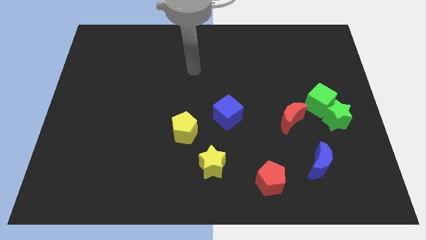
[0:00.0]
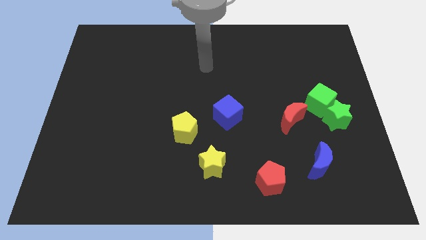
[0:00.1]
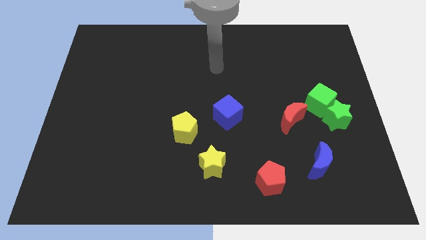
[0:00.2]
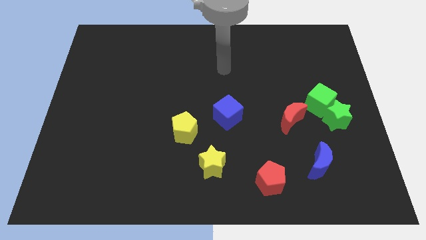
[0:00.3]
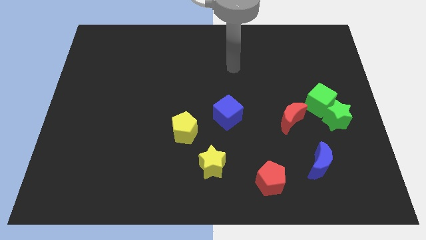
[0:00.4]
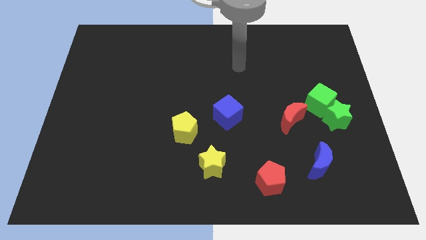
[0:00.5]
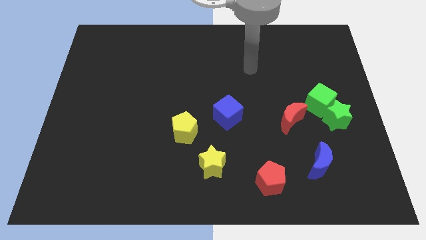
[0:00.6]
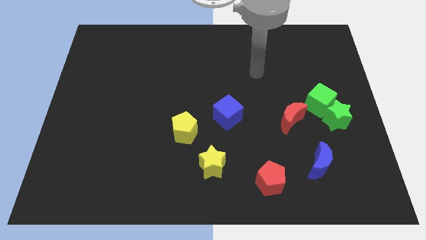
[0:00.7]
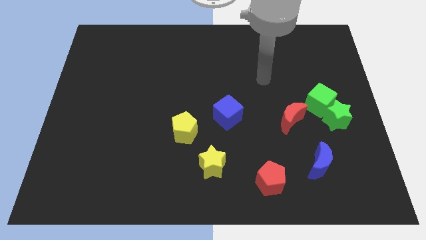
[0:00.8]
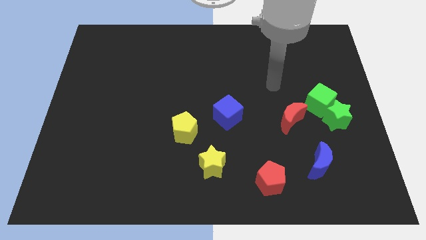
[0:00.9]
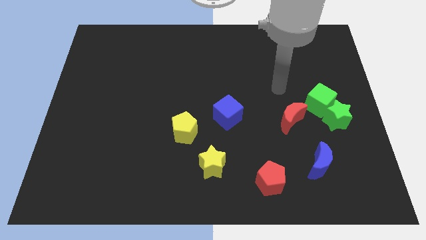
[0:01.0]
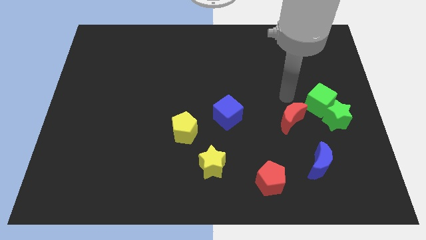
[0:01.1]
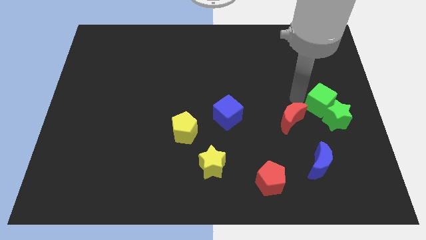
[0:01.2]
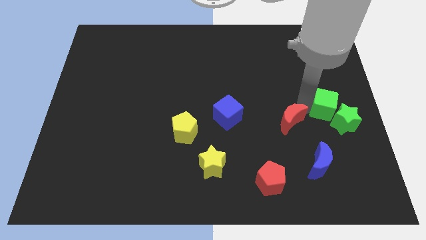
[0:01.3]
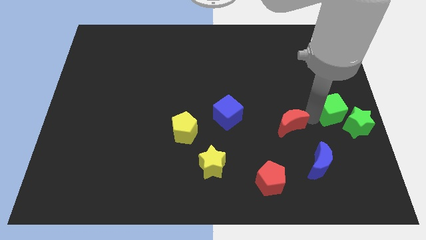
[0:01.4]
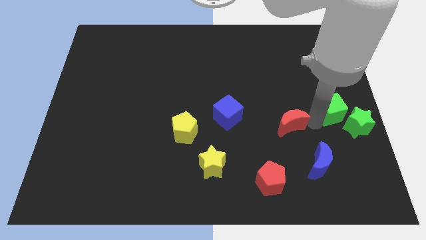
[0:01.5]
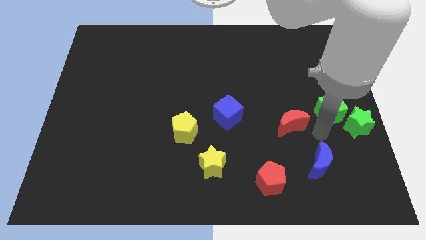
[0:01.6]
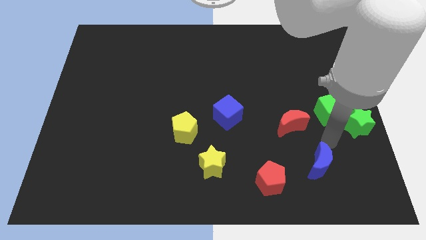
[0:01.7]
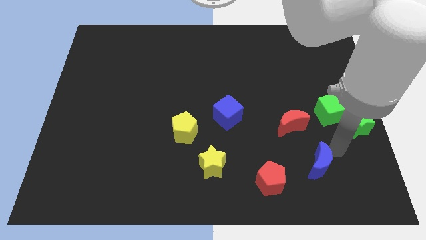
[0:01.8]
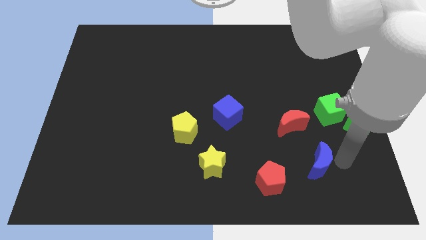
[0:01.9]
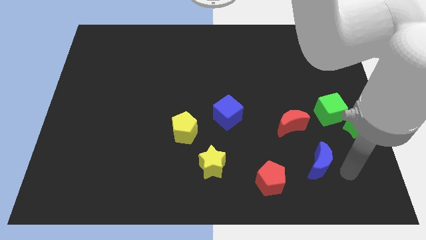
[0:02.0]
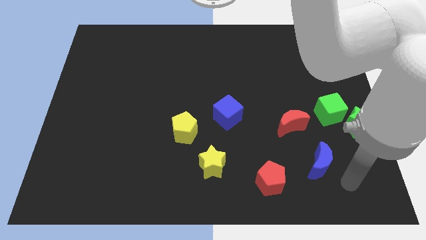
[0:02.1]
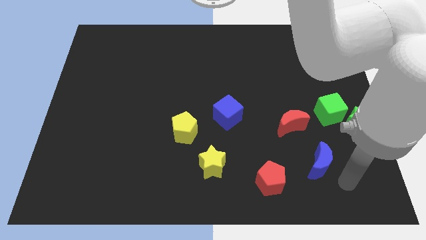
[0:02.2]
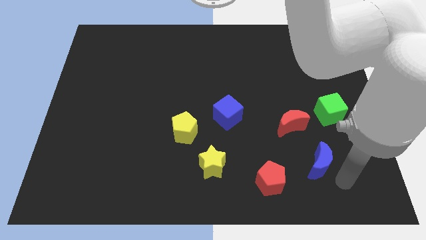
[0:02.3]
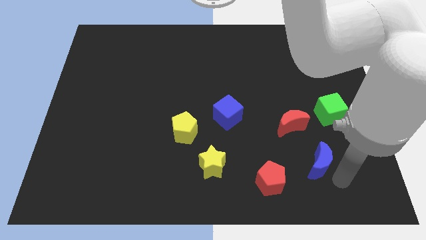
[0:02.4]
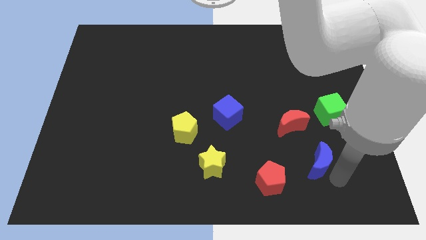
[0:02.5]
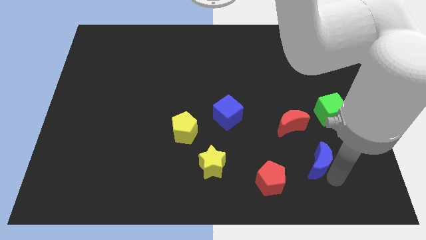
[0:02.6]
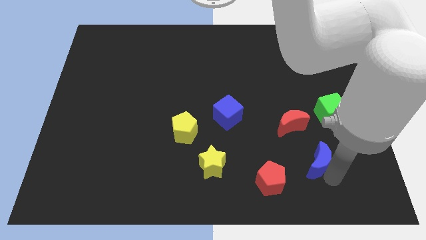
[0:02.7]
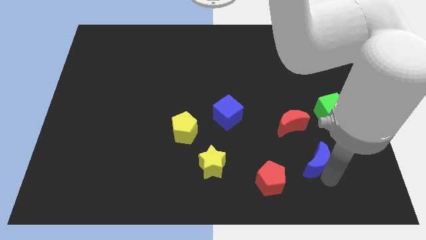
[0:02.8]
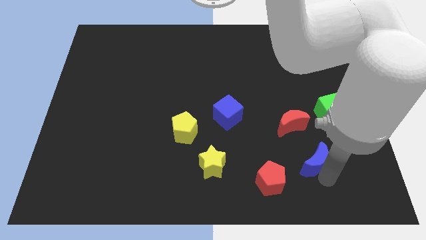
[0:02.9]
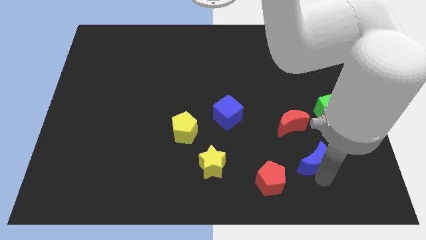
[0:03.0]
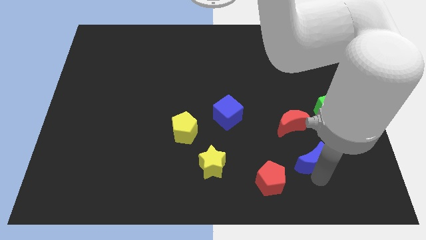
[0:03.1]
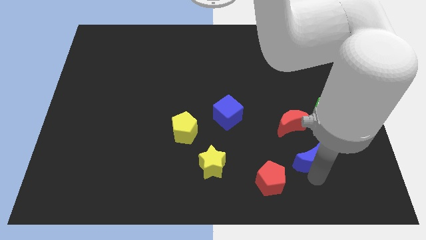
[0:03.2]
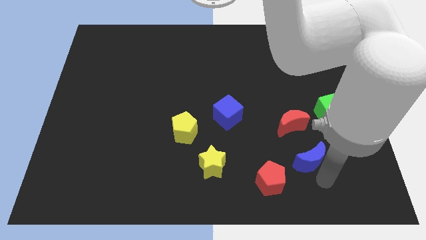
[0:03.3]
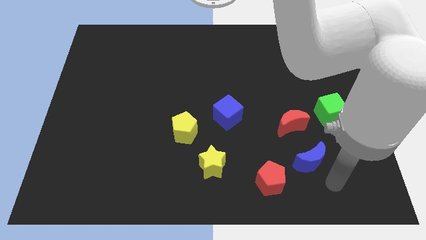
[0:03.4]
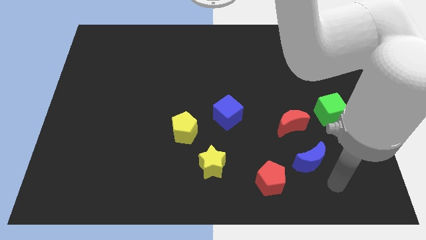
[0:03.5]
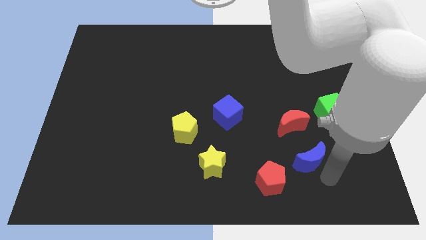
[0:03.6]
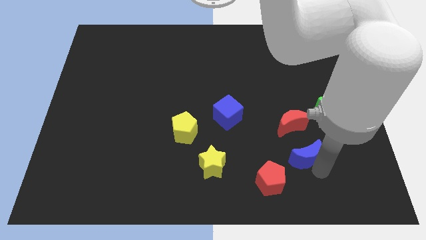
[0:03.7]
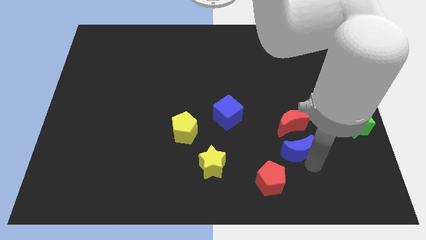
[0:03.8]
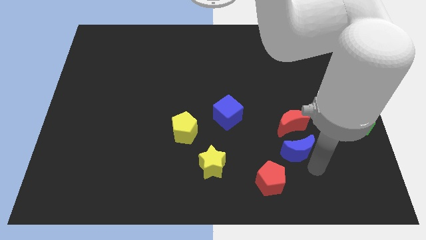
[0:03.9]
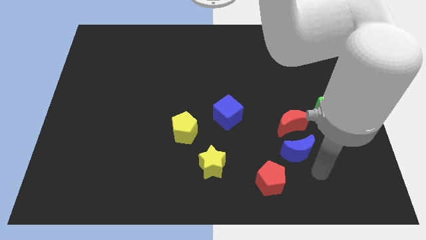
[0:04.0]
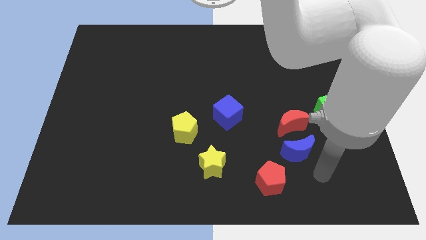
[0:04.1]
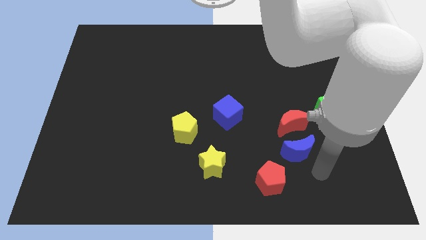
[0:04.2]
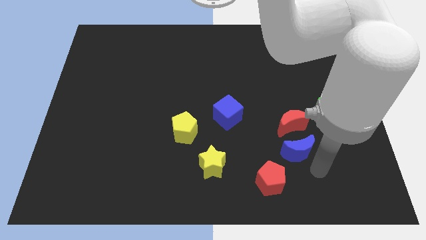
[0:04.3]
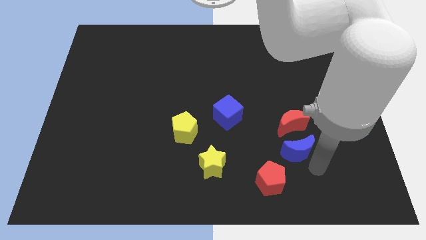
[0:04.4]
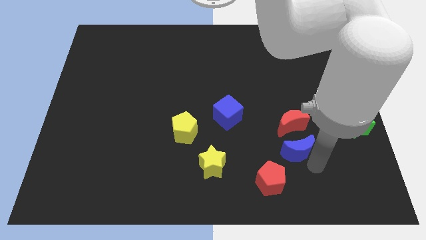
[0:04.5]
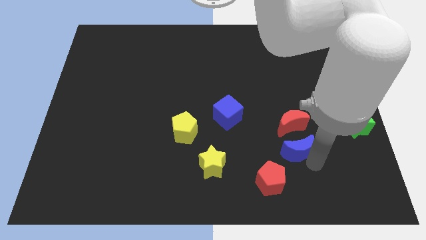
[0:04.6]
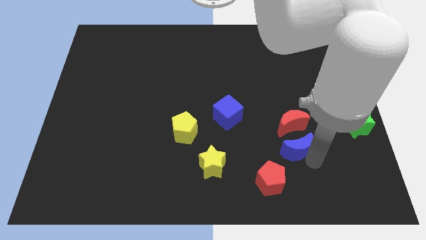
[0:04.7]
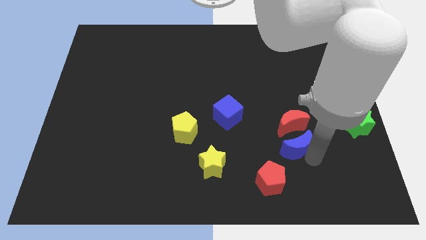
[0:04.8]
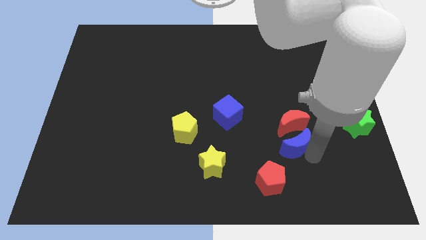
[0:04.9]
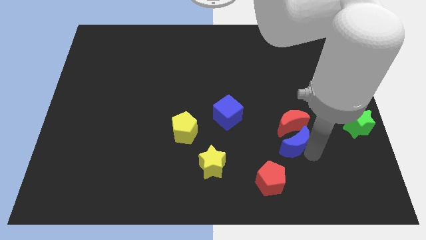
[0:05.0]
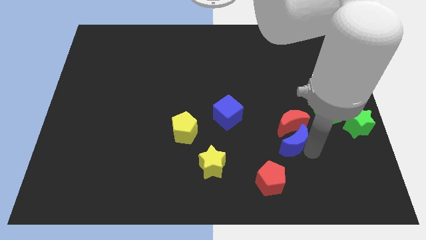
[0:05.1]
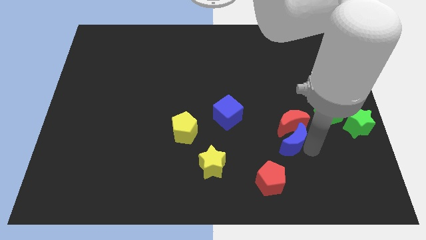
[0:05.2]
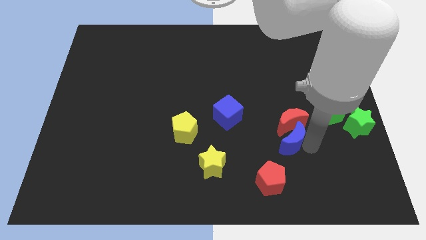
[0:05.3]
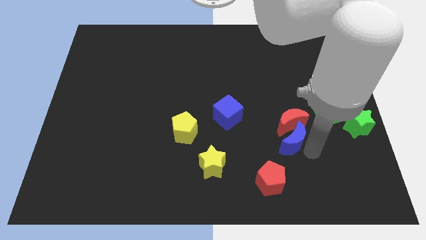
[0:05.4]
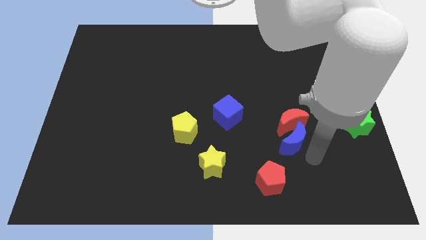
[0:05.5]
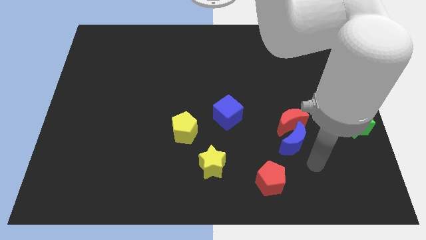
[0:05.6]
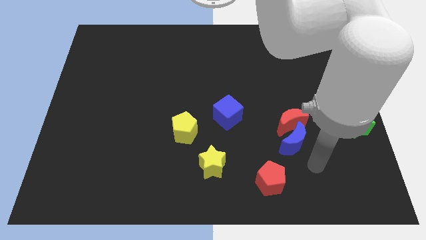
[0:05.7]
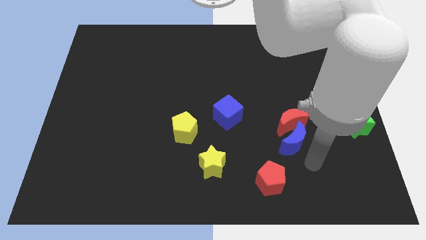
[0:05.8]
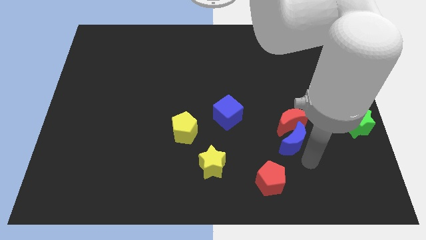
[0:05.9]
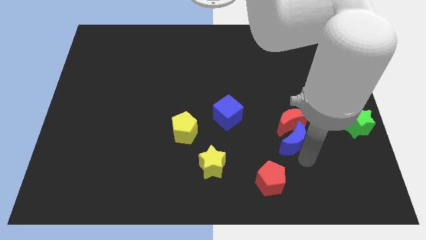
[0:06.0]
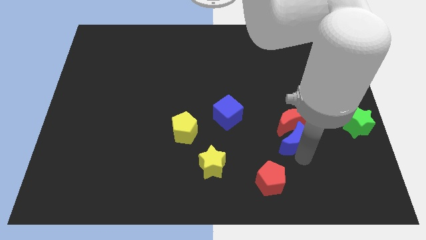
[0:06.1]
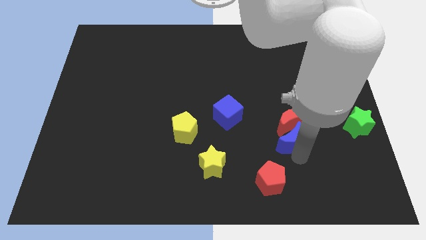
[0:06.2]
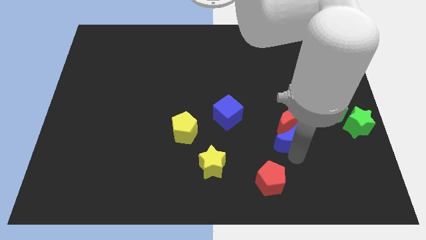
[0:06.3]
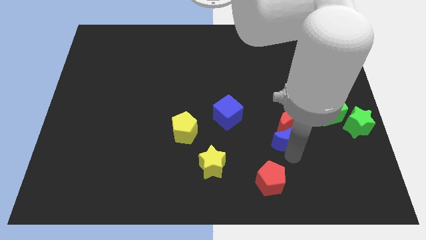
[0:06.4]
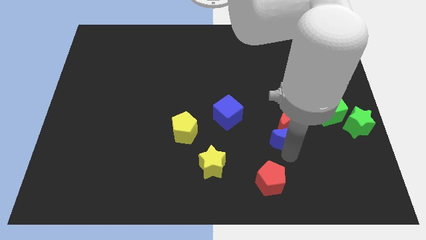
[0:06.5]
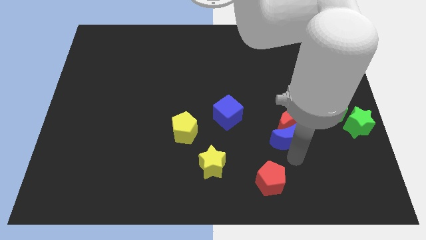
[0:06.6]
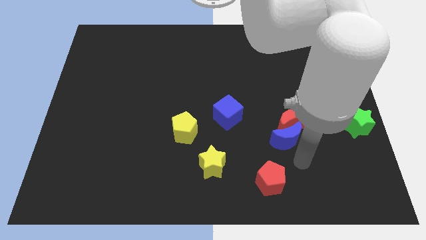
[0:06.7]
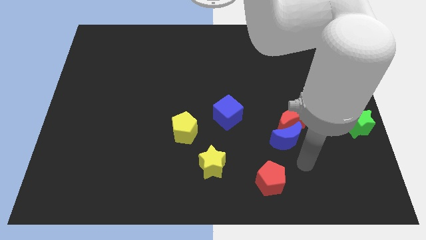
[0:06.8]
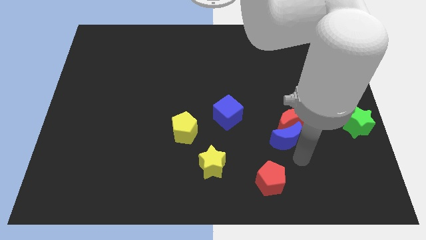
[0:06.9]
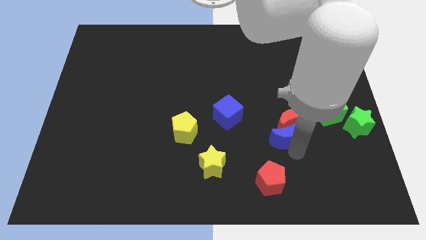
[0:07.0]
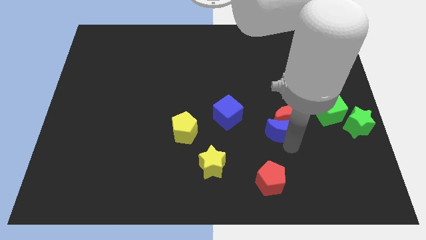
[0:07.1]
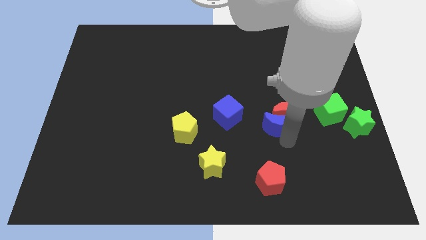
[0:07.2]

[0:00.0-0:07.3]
slide the blue moon somewhat up

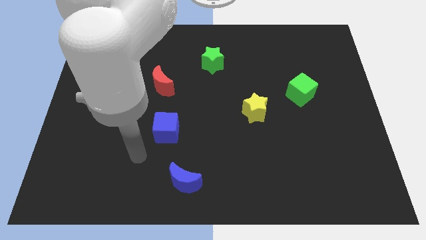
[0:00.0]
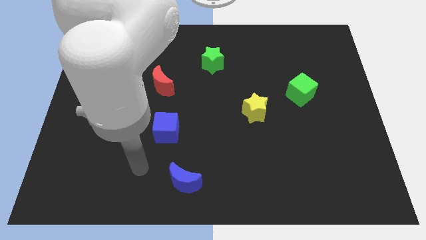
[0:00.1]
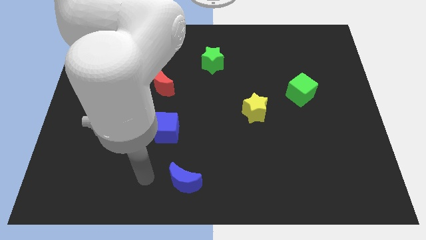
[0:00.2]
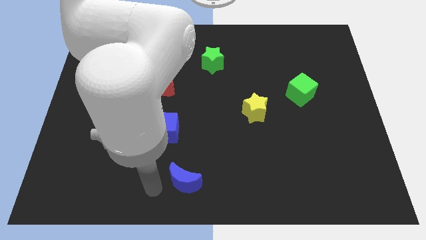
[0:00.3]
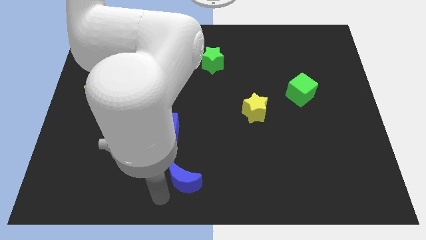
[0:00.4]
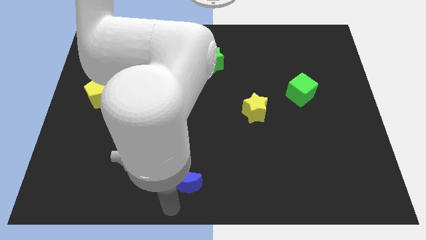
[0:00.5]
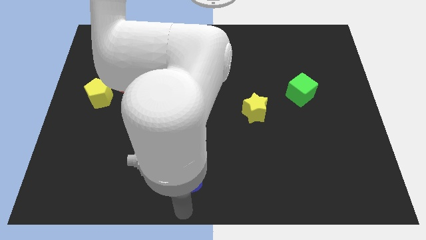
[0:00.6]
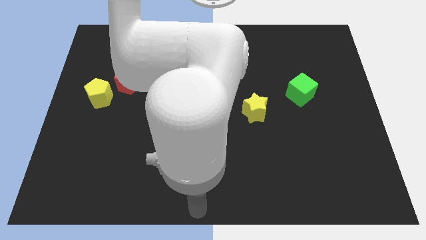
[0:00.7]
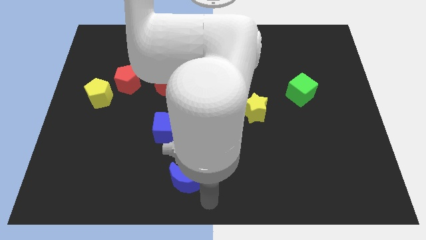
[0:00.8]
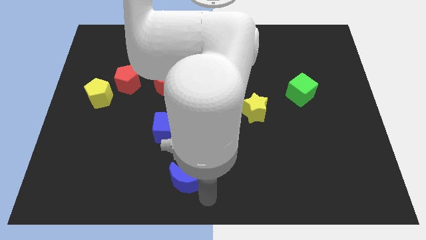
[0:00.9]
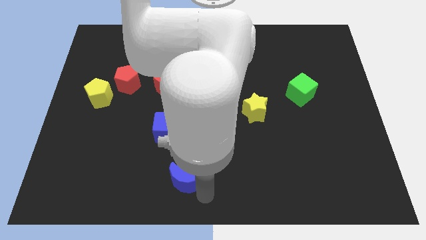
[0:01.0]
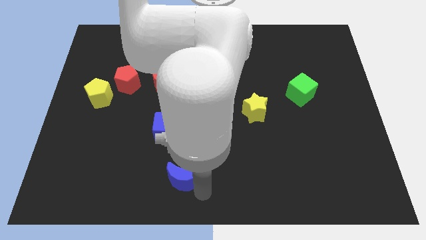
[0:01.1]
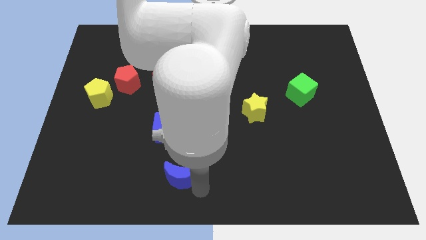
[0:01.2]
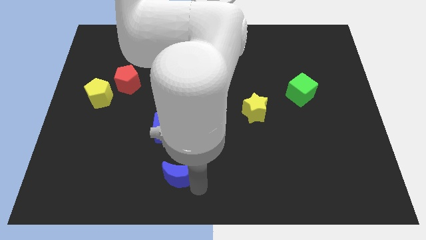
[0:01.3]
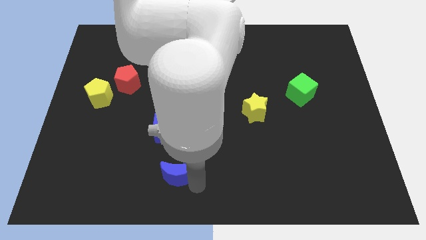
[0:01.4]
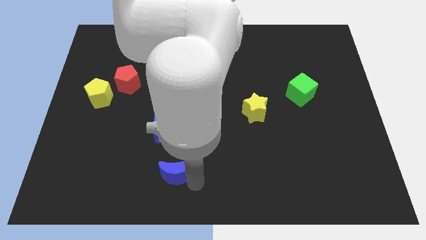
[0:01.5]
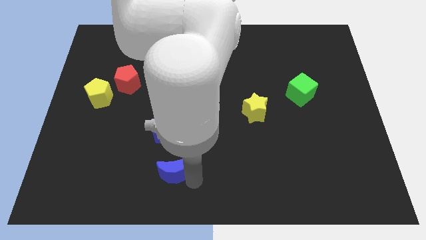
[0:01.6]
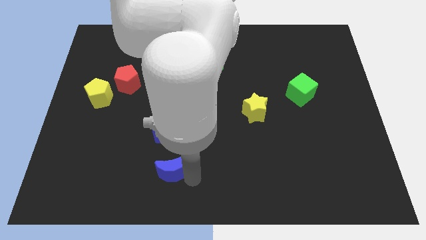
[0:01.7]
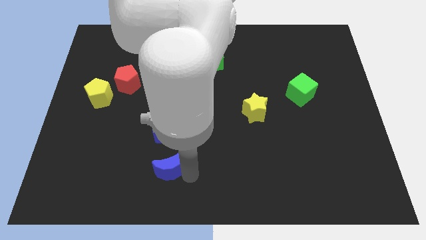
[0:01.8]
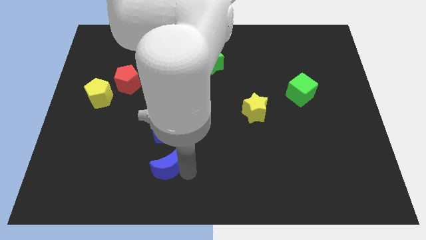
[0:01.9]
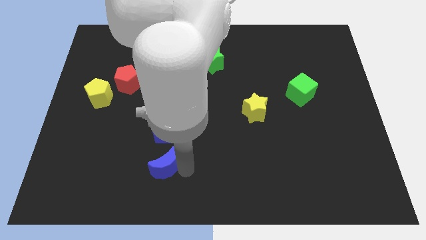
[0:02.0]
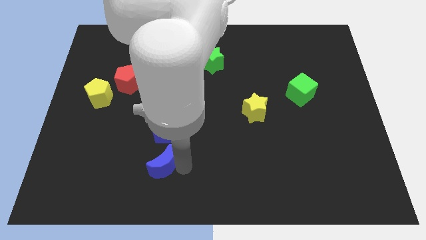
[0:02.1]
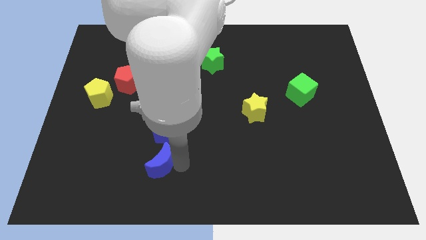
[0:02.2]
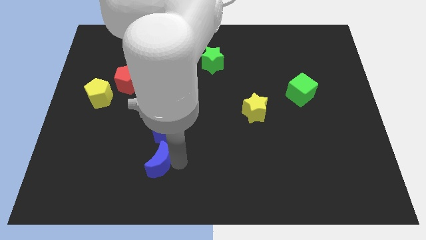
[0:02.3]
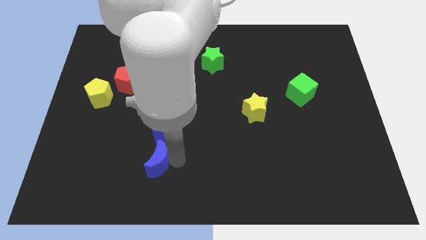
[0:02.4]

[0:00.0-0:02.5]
slide the blue moon diagonally upwards and left slightly
